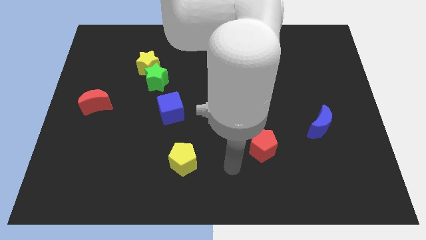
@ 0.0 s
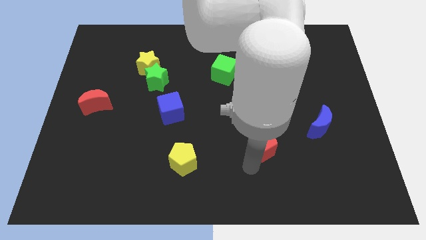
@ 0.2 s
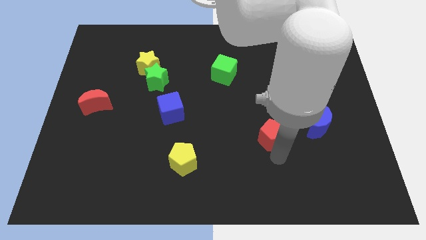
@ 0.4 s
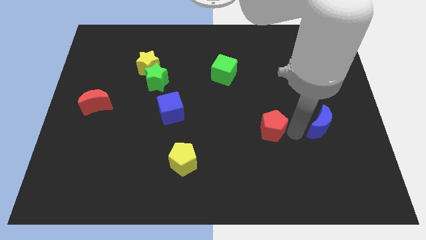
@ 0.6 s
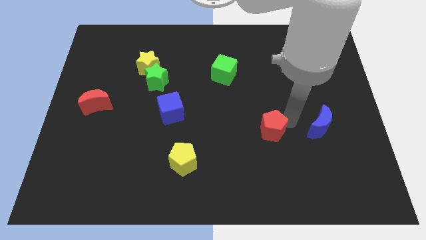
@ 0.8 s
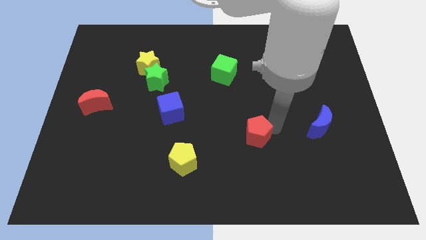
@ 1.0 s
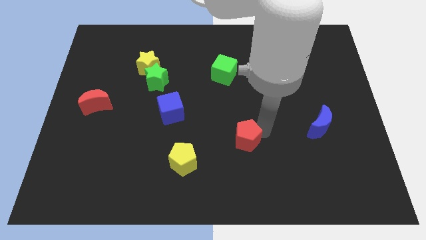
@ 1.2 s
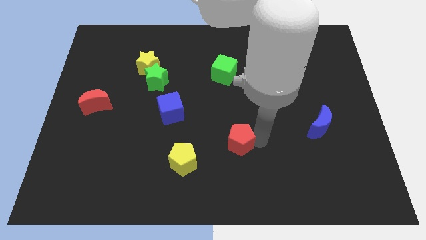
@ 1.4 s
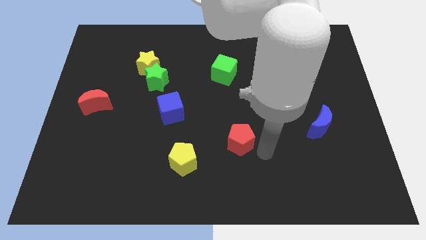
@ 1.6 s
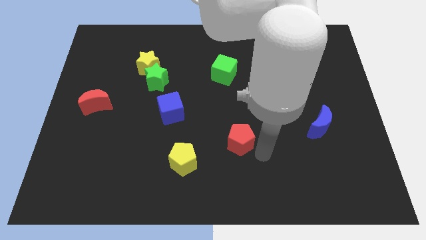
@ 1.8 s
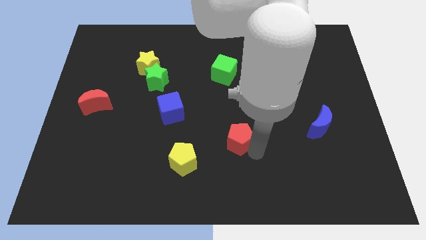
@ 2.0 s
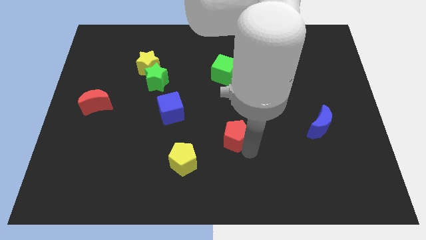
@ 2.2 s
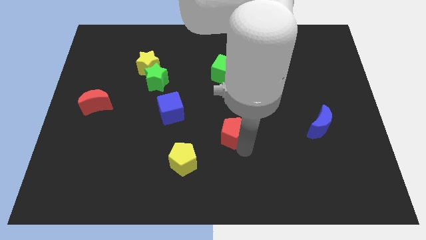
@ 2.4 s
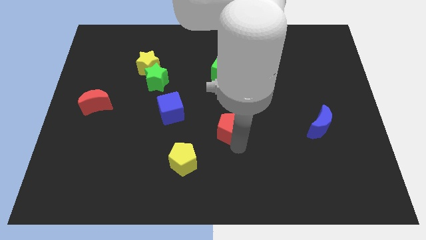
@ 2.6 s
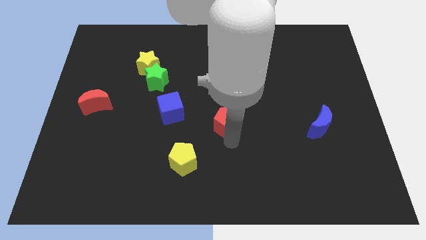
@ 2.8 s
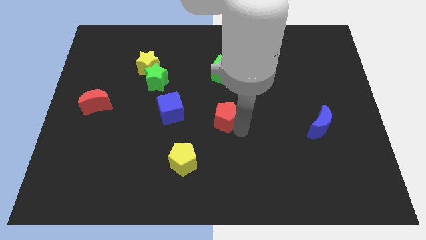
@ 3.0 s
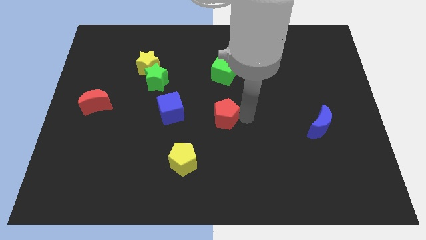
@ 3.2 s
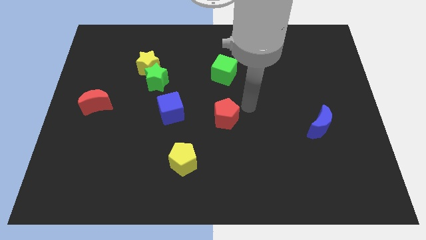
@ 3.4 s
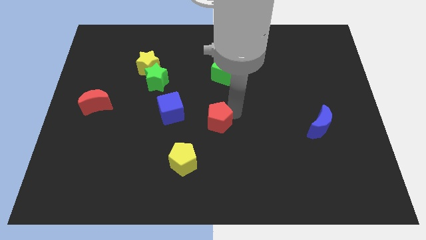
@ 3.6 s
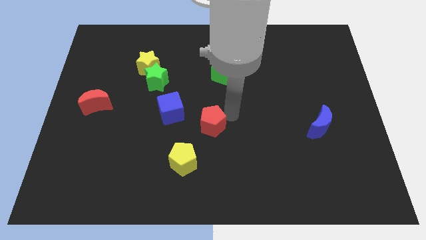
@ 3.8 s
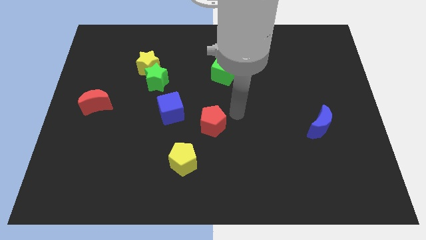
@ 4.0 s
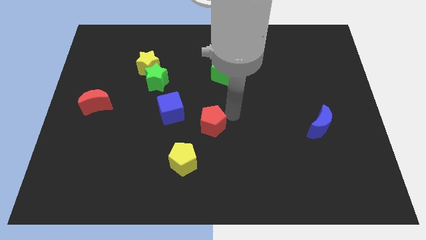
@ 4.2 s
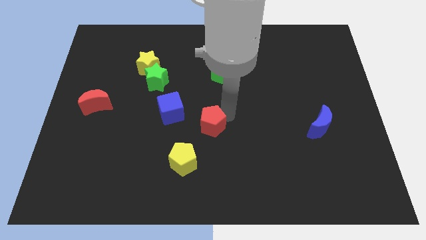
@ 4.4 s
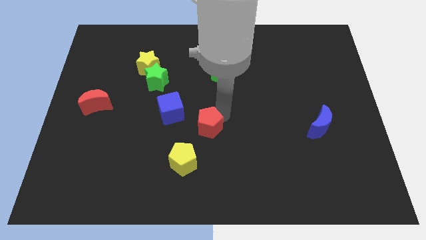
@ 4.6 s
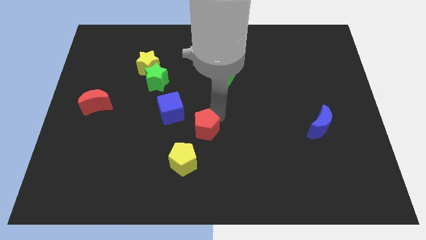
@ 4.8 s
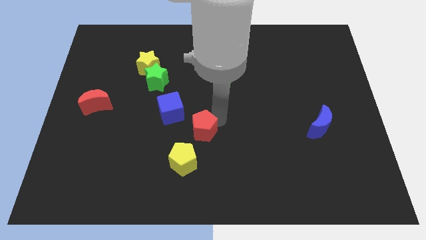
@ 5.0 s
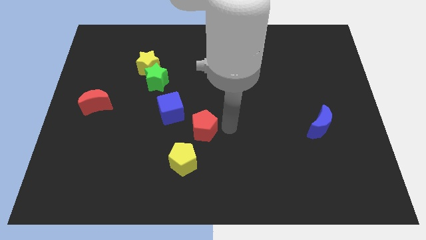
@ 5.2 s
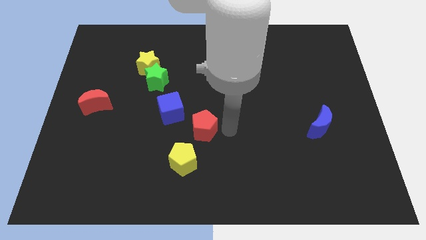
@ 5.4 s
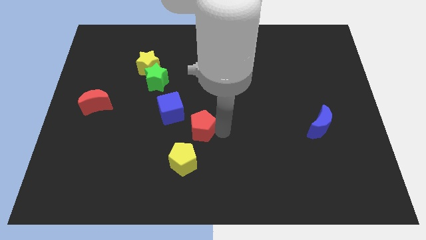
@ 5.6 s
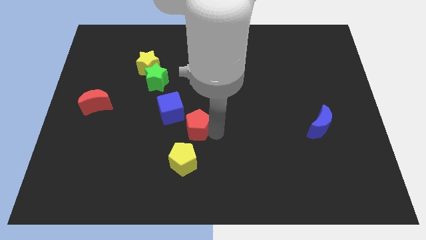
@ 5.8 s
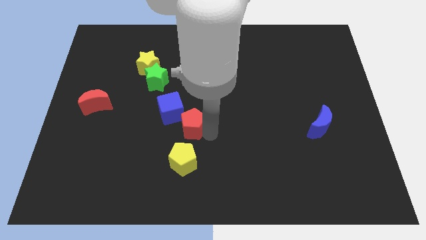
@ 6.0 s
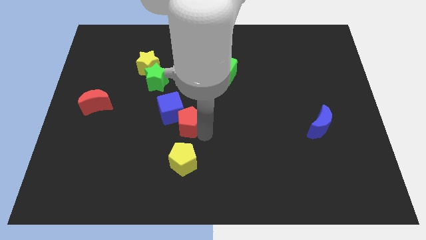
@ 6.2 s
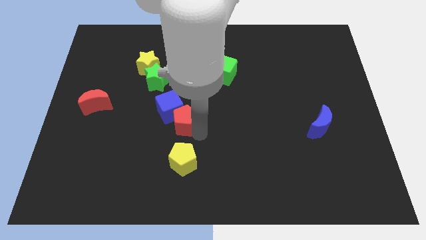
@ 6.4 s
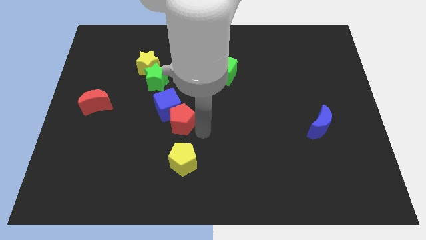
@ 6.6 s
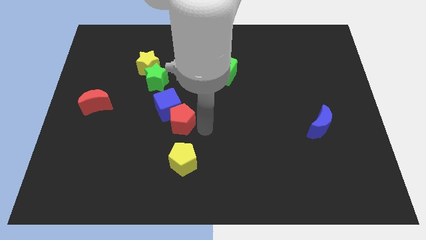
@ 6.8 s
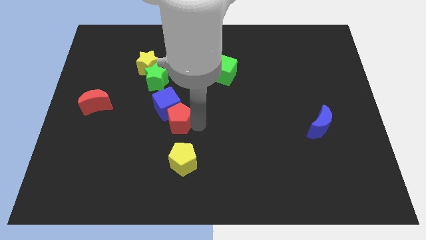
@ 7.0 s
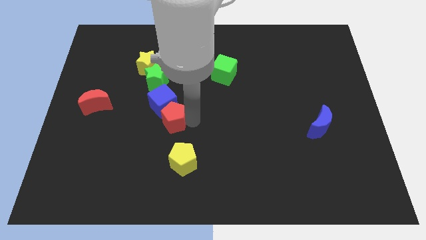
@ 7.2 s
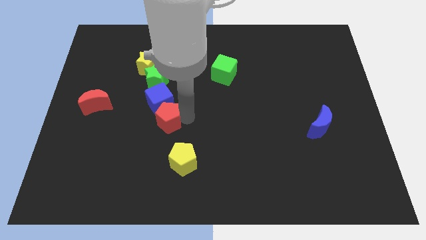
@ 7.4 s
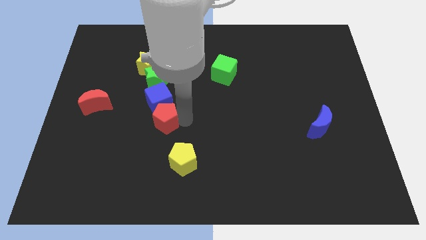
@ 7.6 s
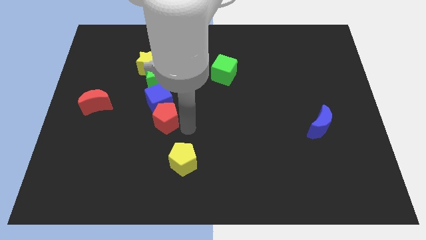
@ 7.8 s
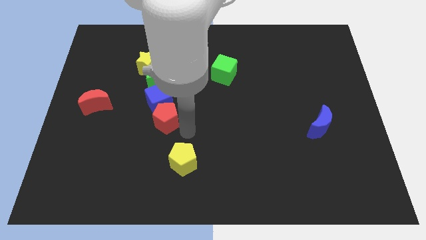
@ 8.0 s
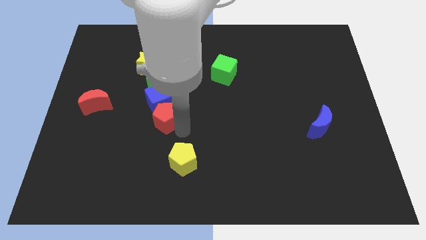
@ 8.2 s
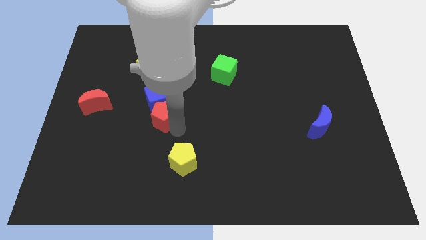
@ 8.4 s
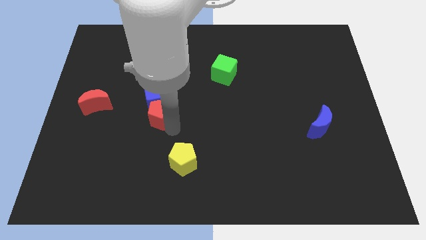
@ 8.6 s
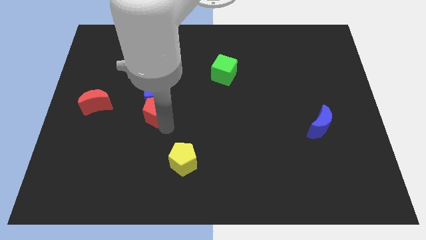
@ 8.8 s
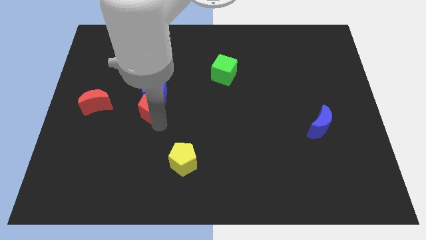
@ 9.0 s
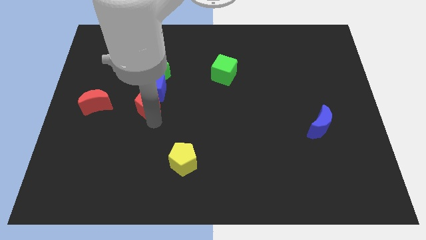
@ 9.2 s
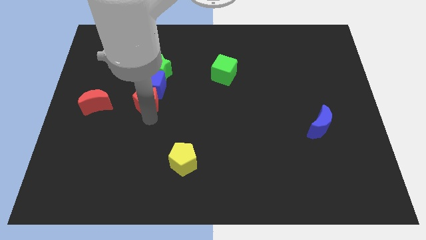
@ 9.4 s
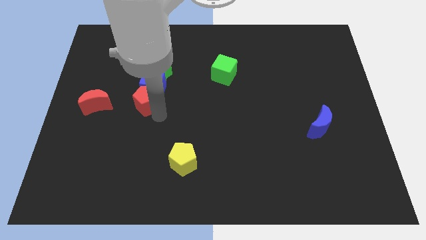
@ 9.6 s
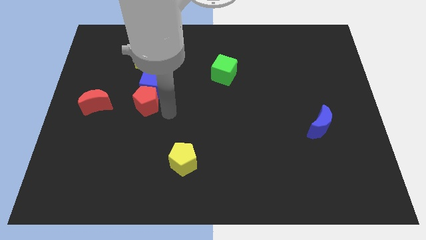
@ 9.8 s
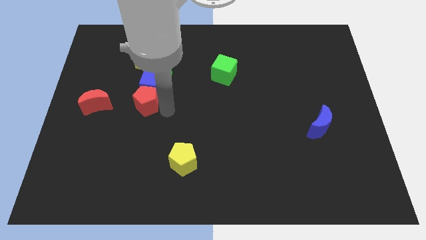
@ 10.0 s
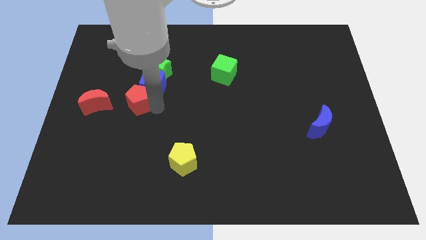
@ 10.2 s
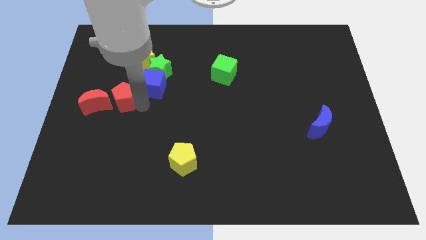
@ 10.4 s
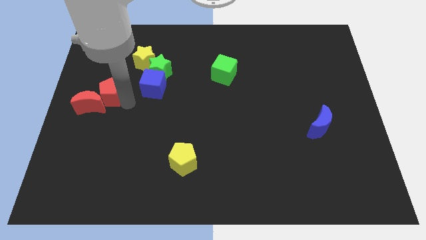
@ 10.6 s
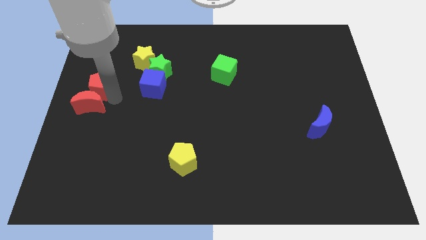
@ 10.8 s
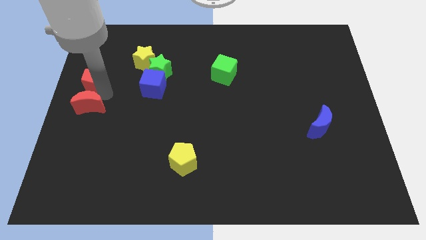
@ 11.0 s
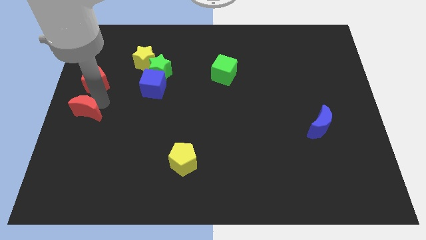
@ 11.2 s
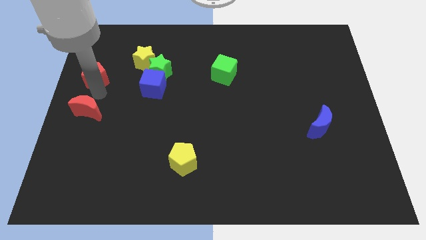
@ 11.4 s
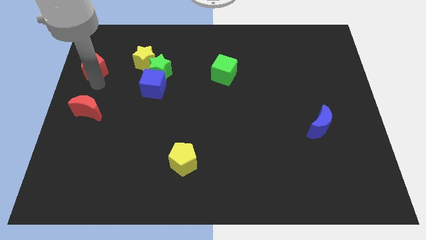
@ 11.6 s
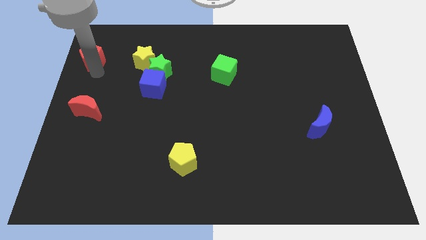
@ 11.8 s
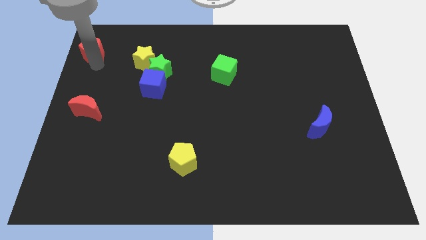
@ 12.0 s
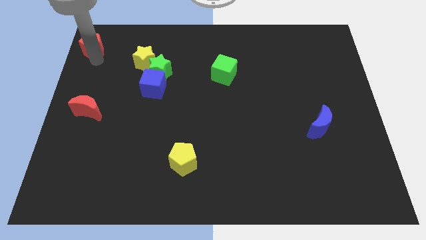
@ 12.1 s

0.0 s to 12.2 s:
put the red pentagon to the top left

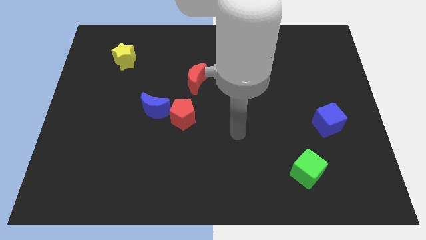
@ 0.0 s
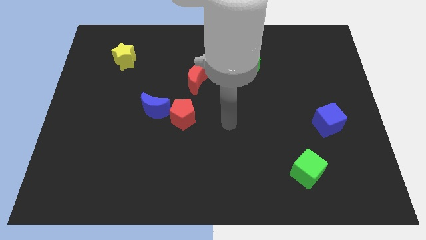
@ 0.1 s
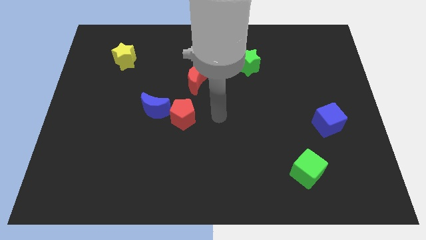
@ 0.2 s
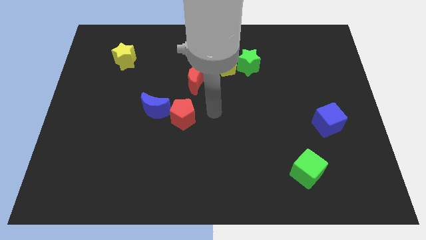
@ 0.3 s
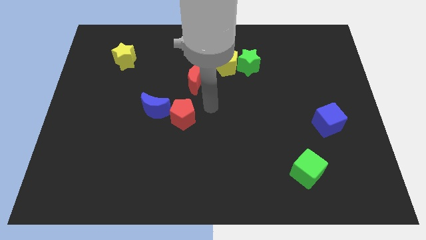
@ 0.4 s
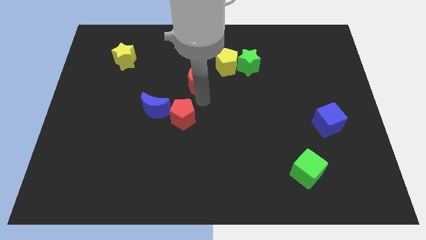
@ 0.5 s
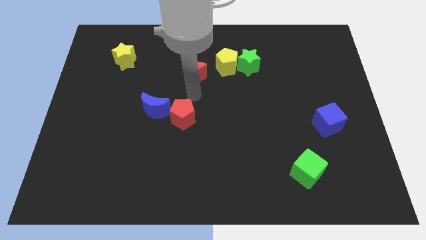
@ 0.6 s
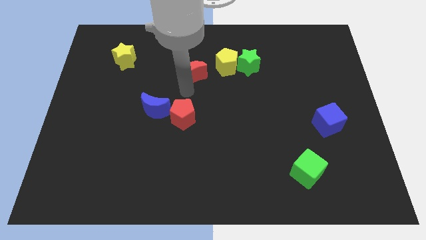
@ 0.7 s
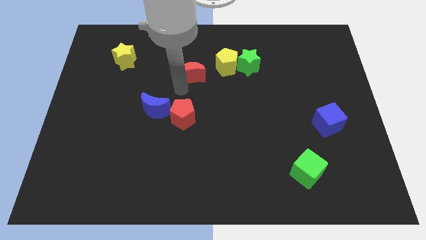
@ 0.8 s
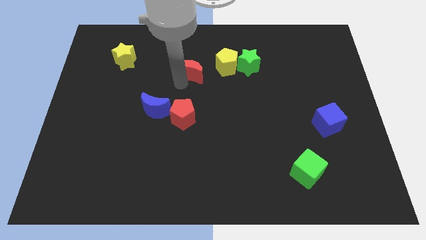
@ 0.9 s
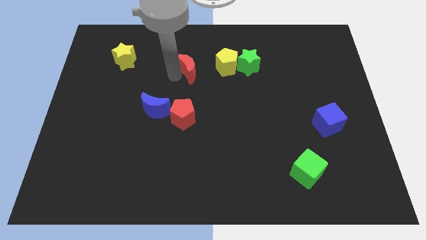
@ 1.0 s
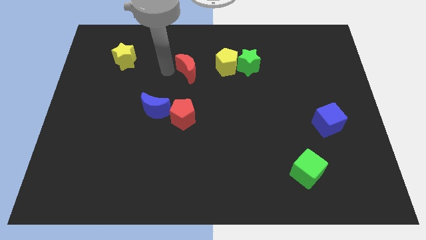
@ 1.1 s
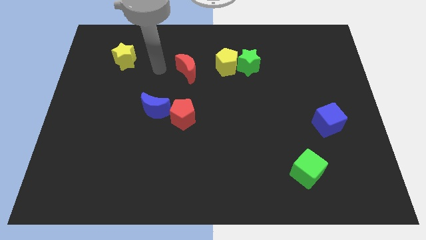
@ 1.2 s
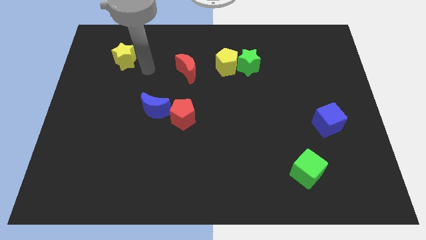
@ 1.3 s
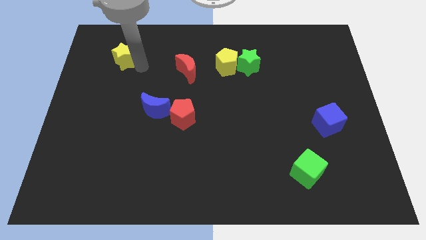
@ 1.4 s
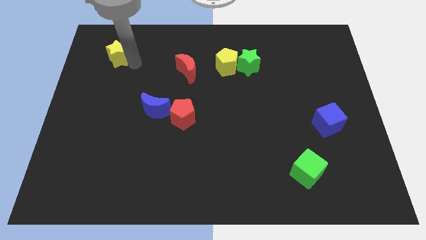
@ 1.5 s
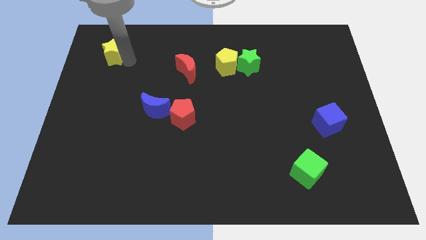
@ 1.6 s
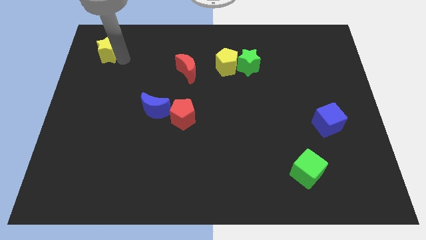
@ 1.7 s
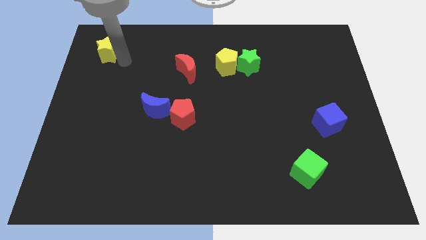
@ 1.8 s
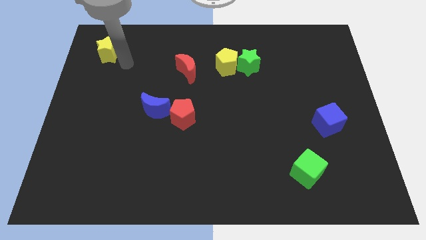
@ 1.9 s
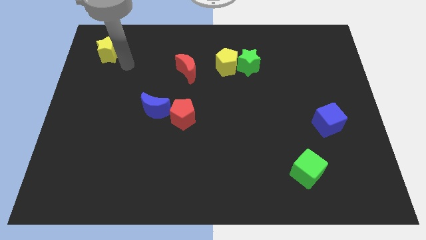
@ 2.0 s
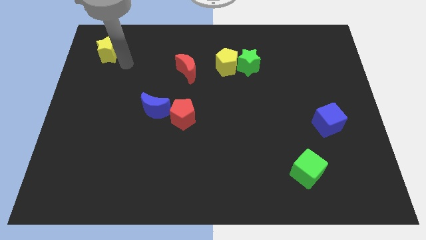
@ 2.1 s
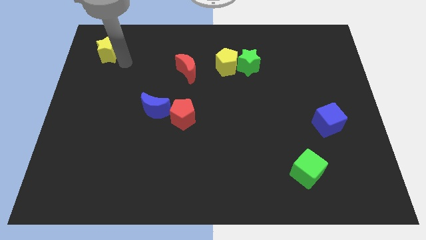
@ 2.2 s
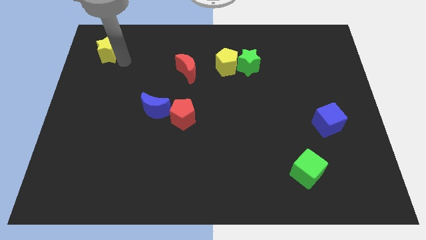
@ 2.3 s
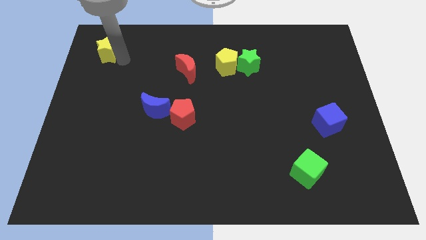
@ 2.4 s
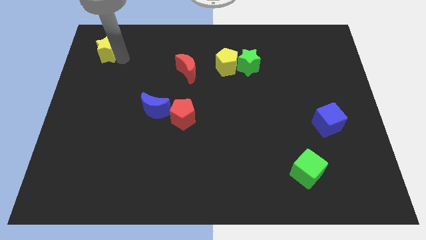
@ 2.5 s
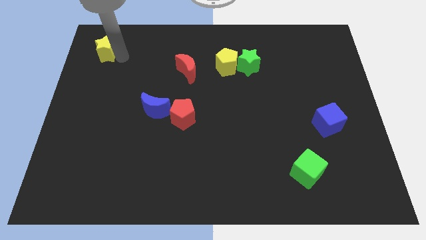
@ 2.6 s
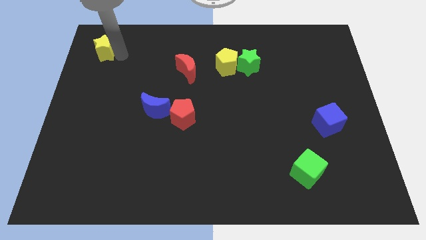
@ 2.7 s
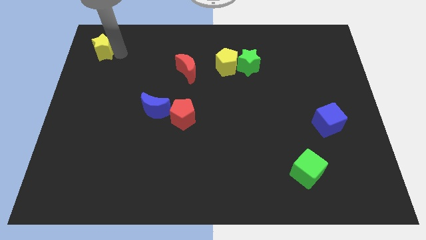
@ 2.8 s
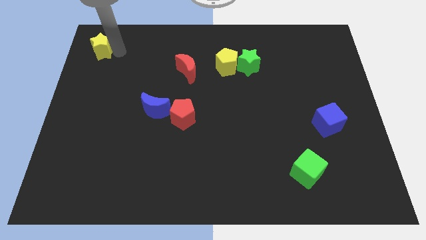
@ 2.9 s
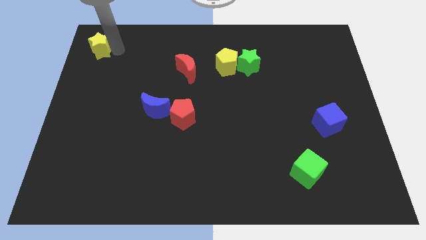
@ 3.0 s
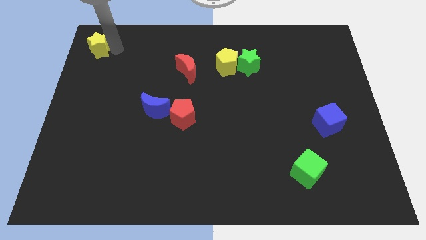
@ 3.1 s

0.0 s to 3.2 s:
slide the yellow star to the upper left corner
